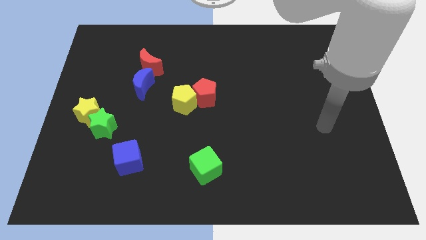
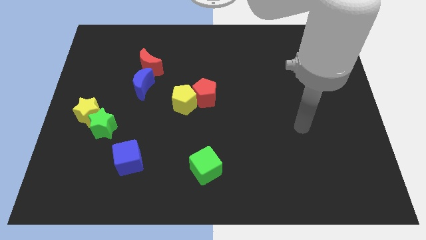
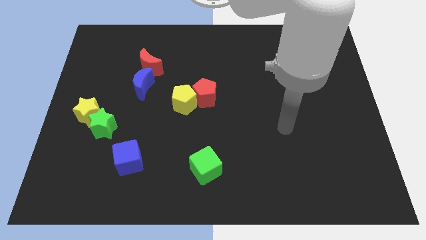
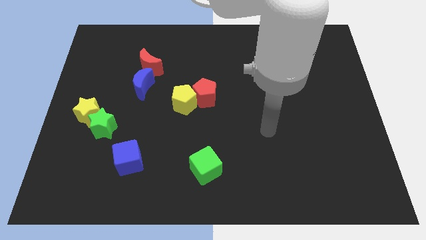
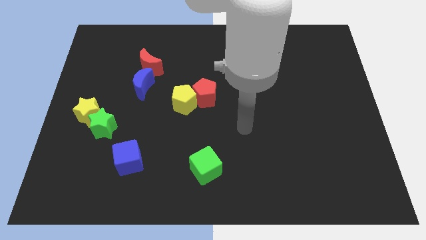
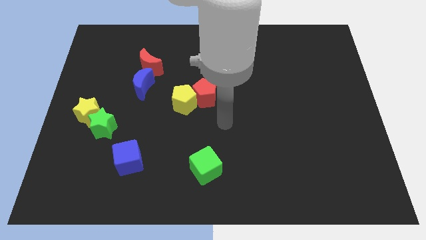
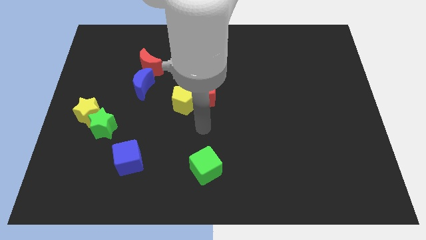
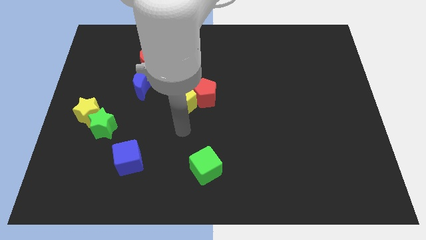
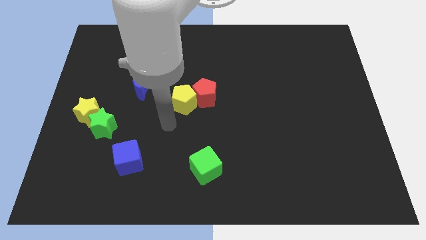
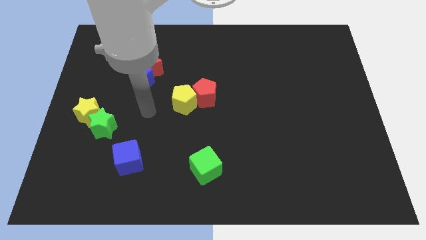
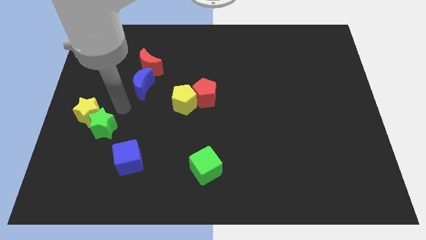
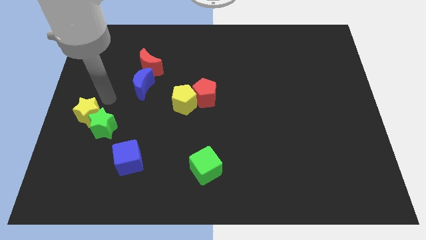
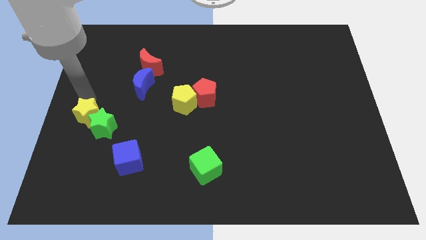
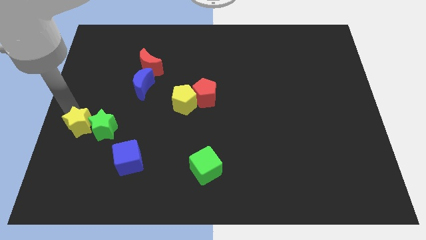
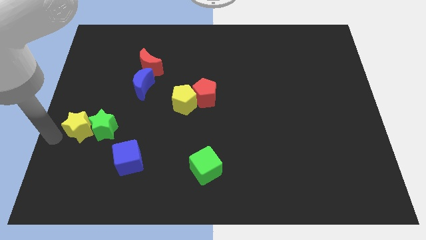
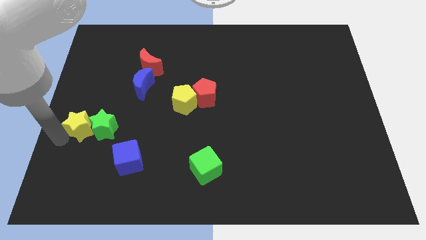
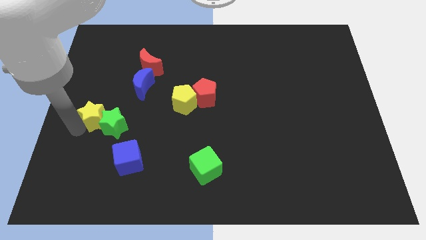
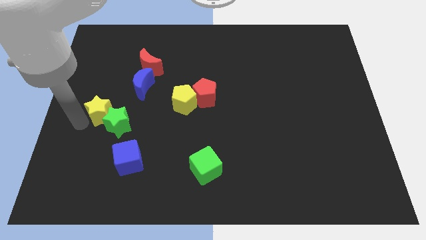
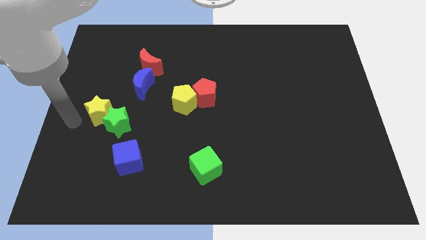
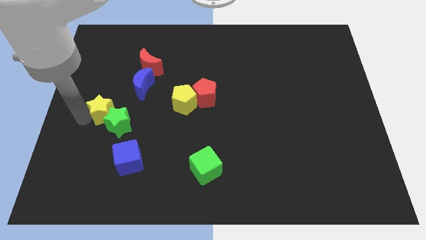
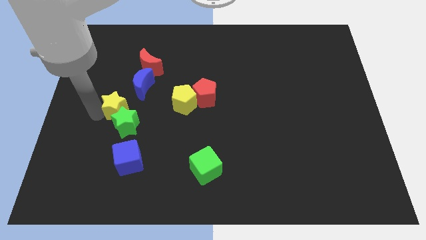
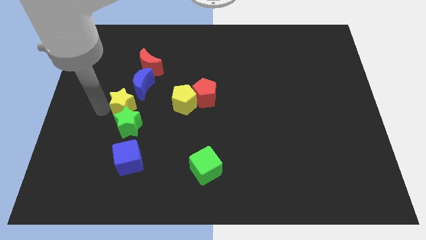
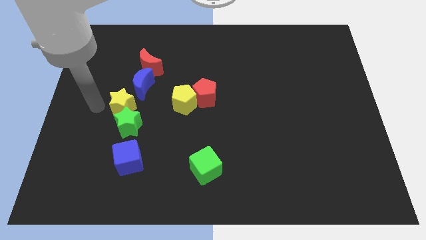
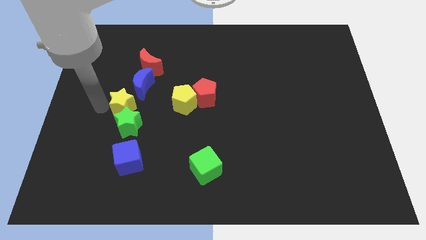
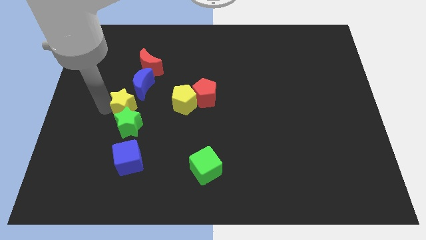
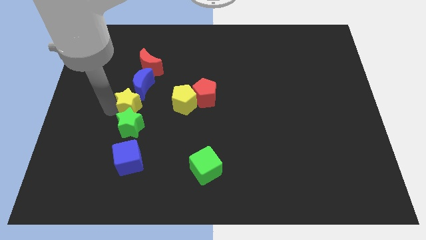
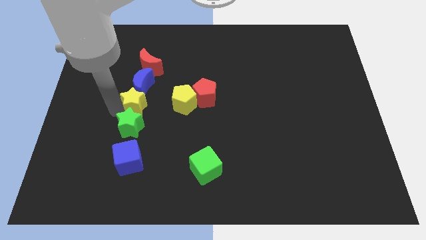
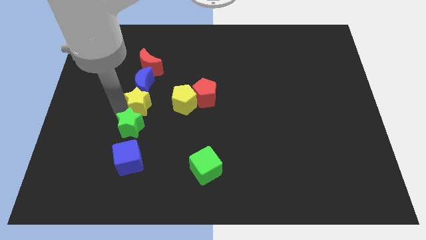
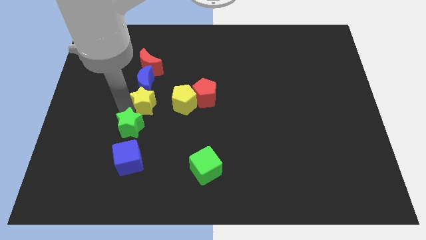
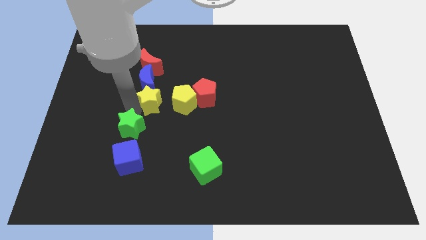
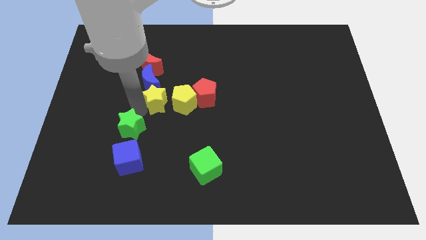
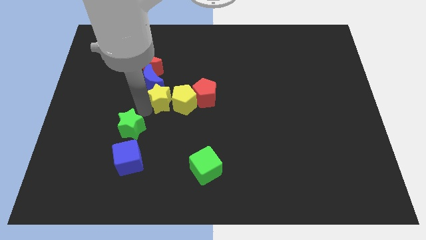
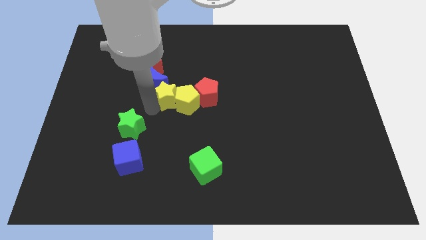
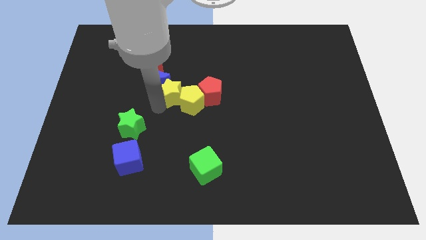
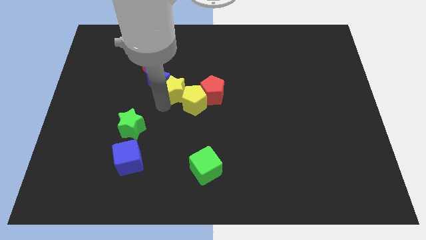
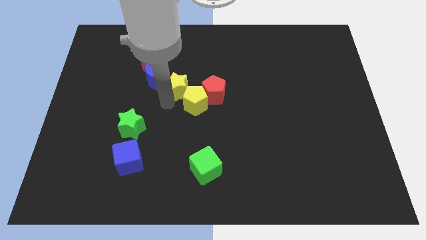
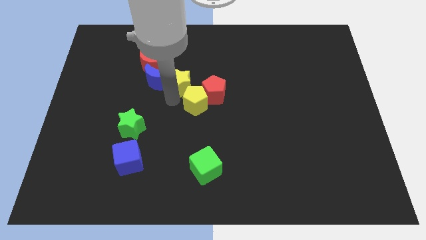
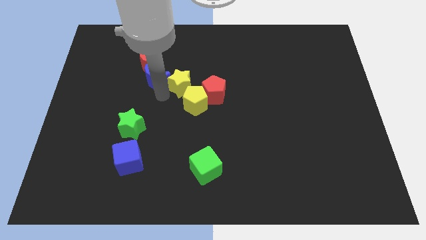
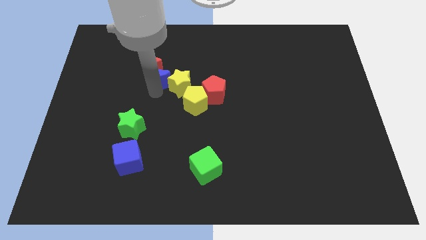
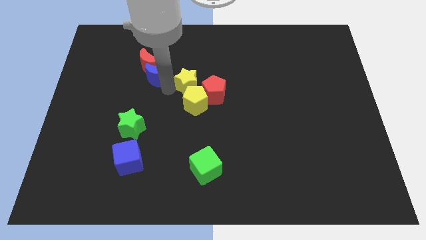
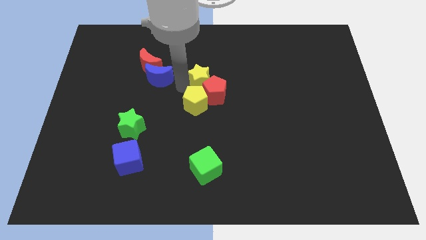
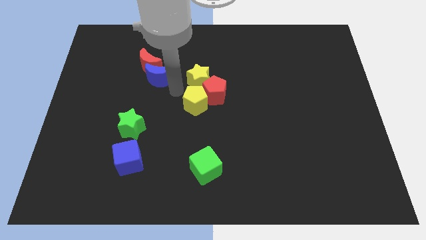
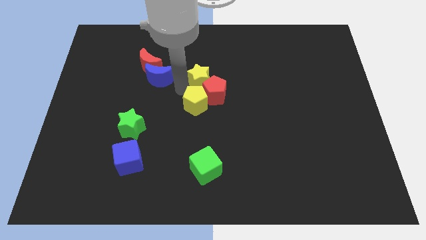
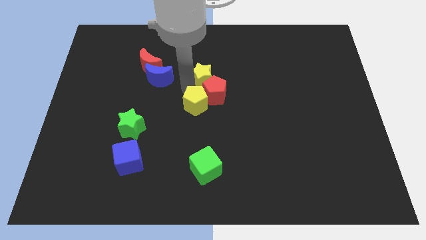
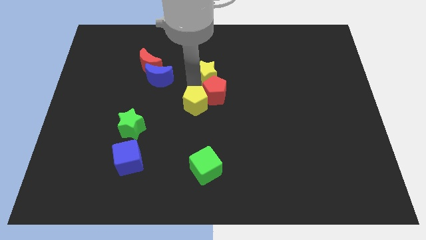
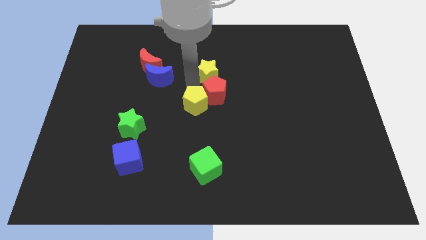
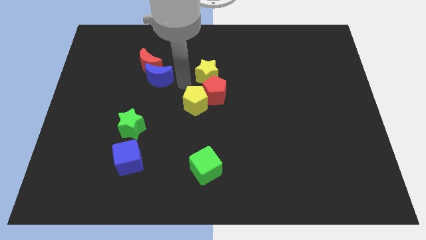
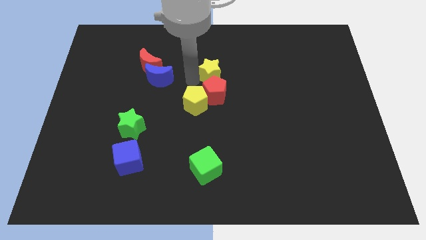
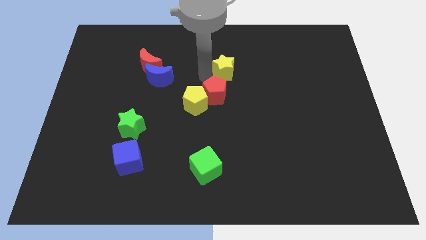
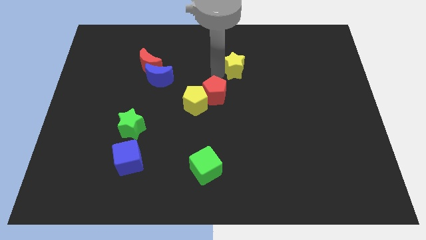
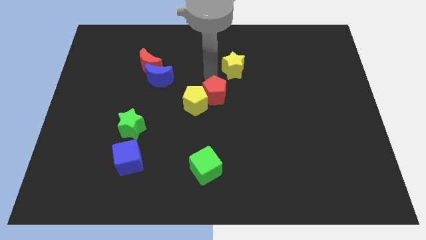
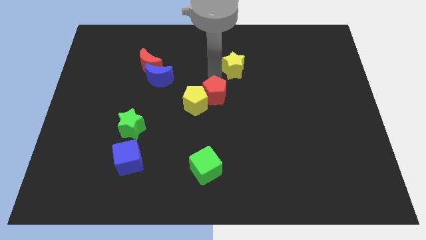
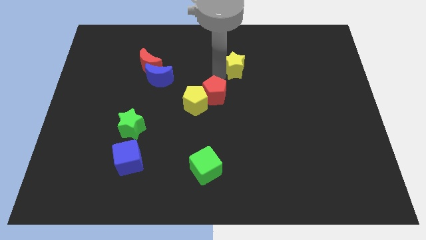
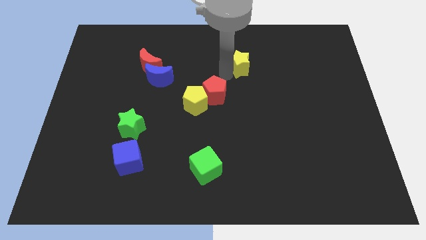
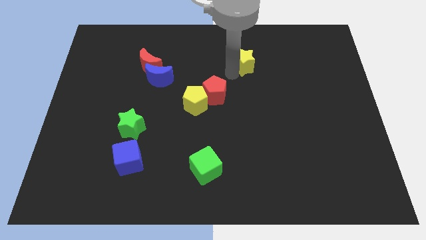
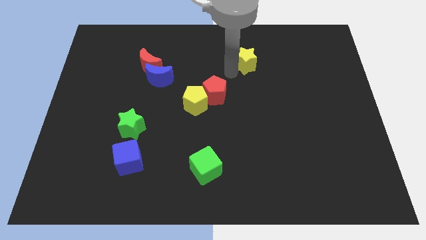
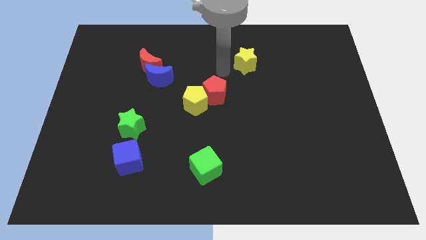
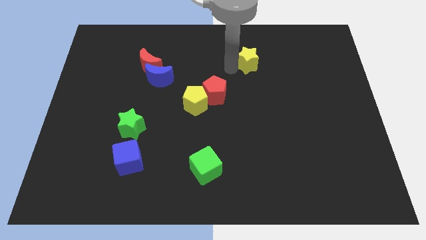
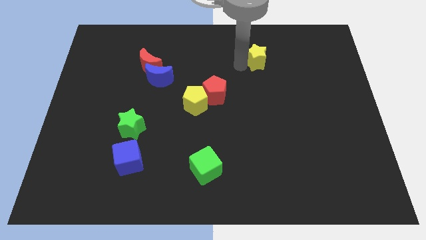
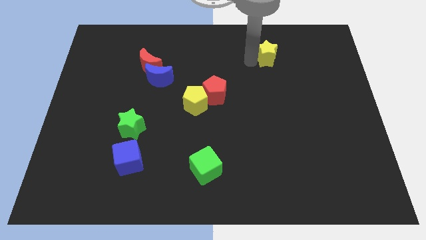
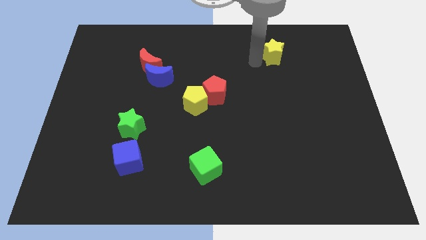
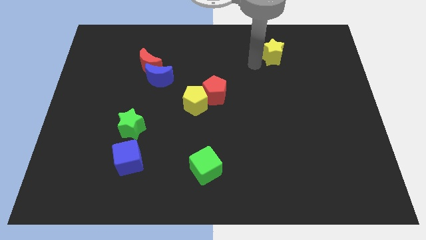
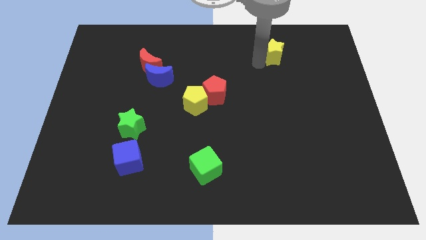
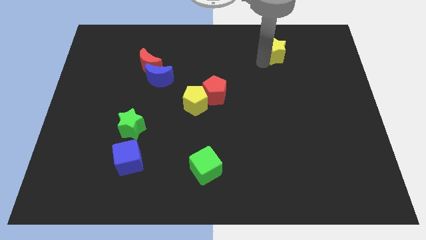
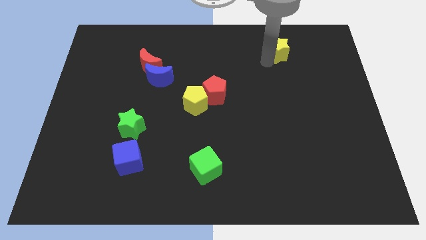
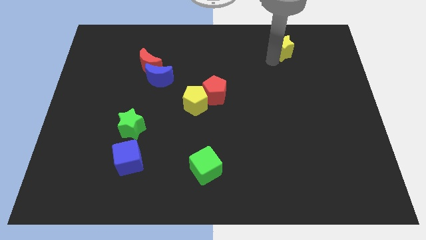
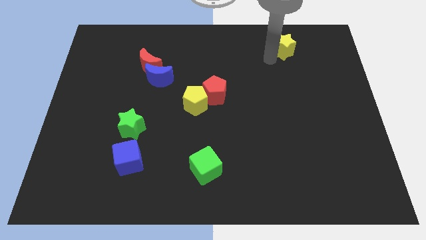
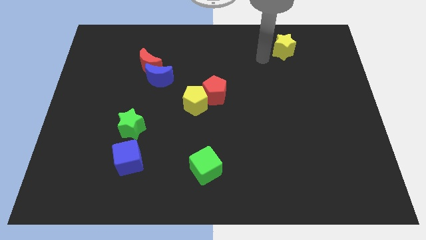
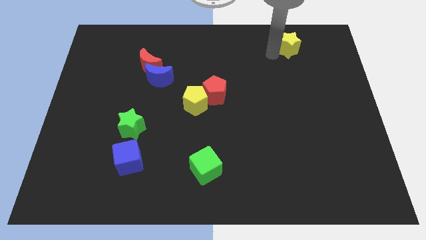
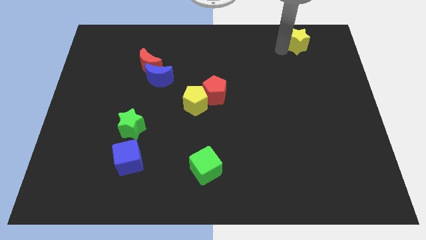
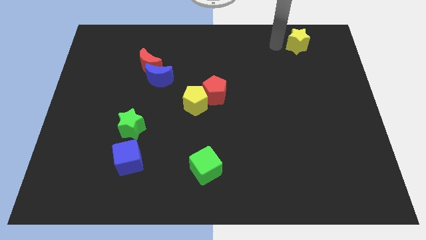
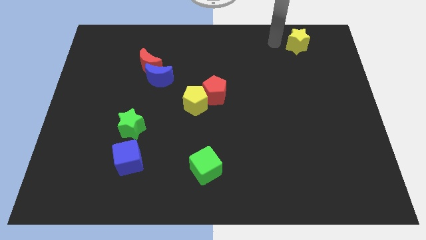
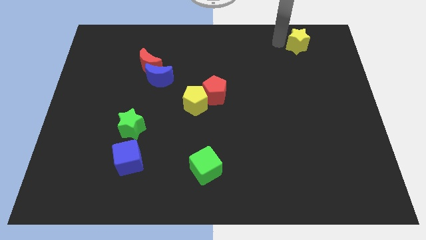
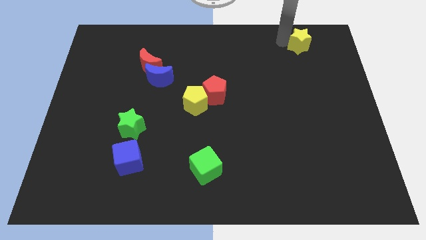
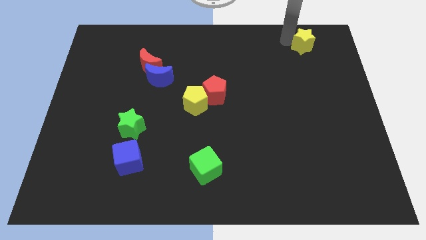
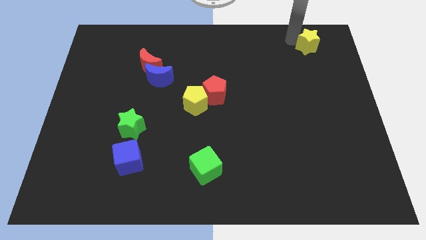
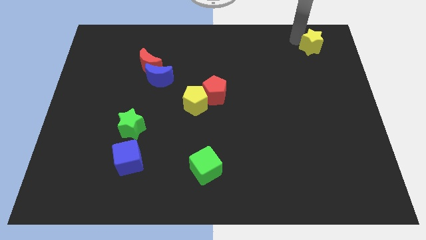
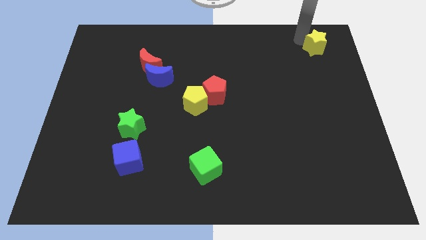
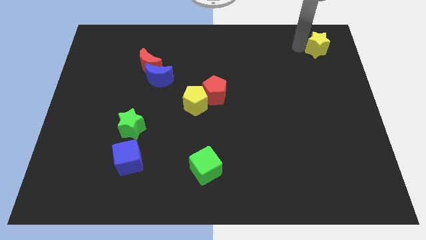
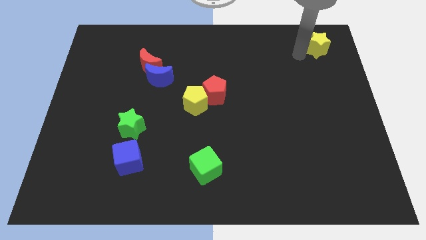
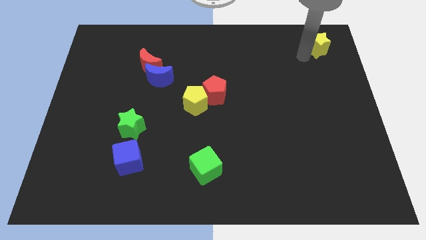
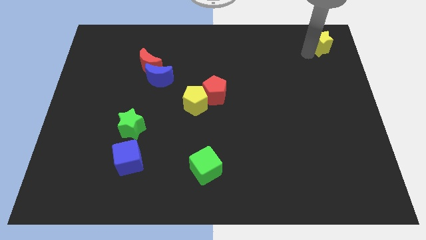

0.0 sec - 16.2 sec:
push the yellow star to the upper right corner
